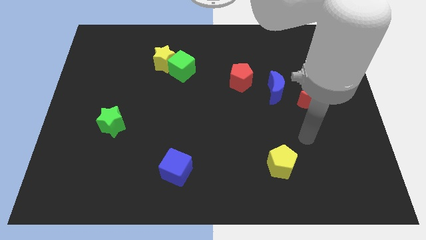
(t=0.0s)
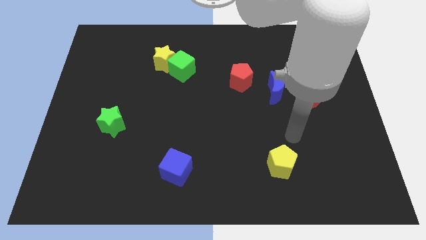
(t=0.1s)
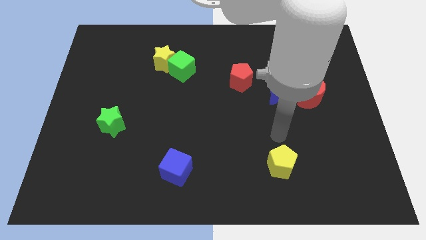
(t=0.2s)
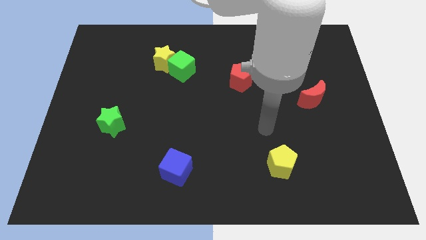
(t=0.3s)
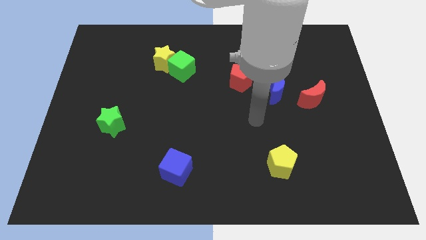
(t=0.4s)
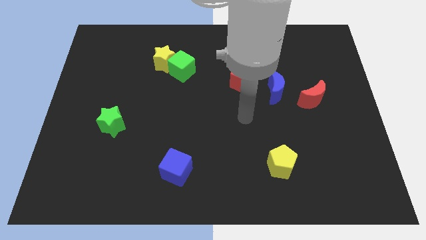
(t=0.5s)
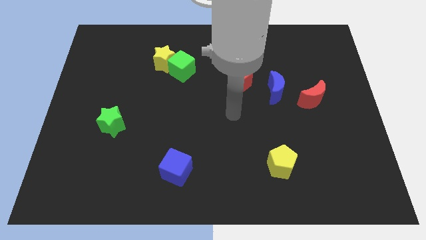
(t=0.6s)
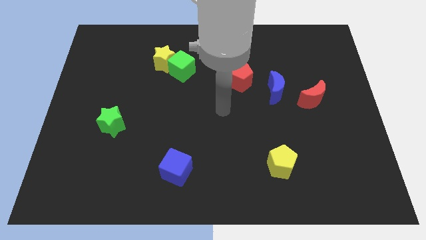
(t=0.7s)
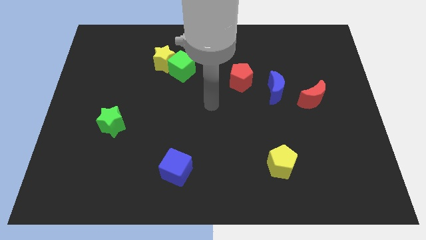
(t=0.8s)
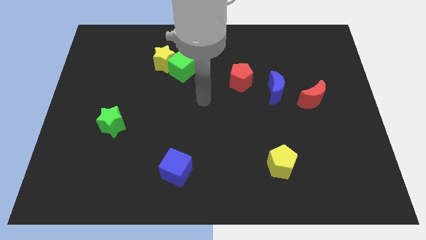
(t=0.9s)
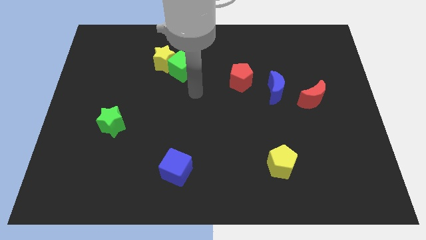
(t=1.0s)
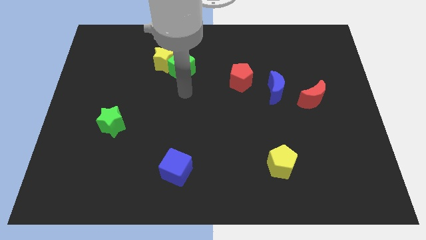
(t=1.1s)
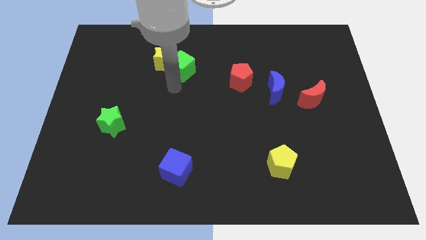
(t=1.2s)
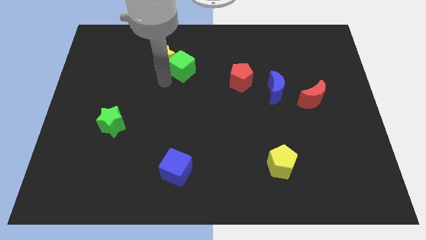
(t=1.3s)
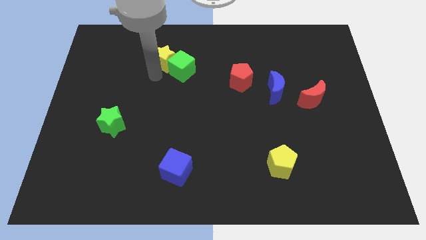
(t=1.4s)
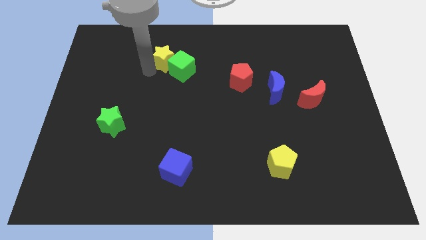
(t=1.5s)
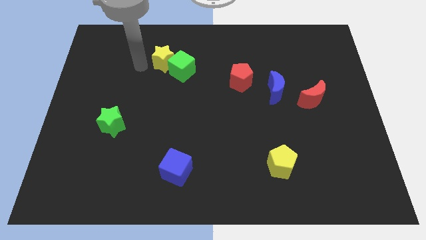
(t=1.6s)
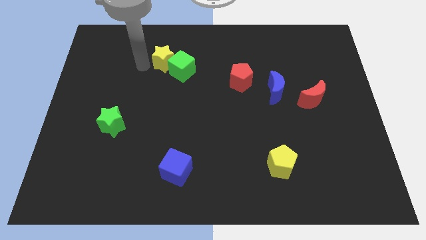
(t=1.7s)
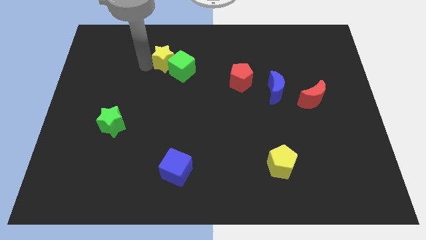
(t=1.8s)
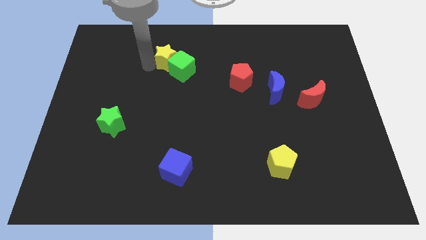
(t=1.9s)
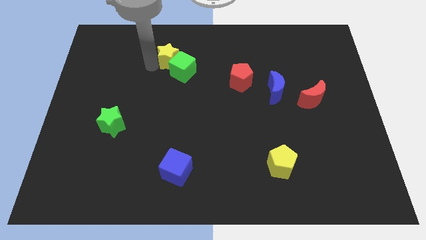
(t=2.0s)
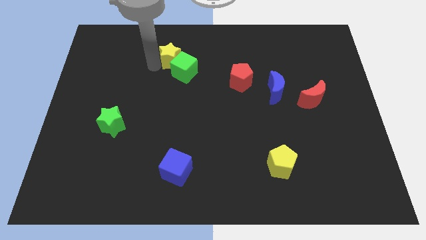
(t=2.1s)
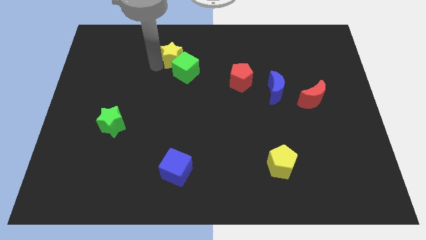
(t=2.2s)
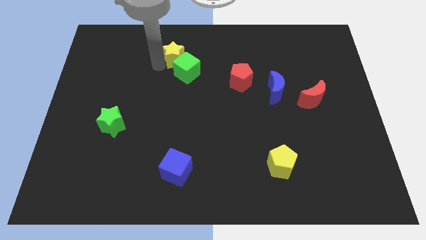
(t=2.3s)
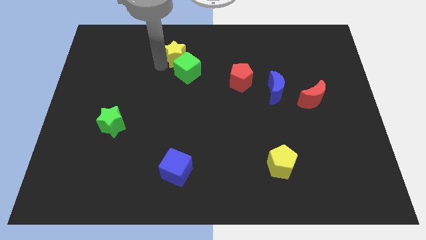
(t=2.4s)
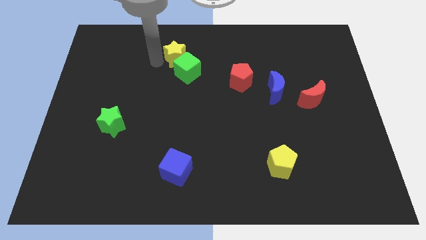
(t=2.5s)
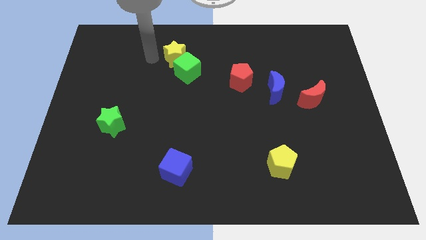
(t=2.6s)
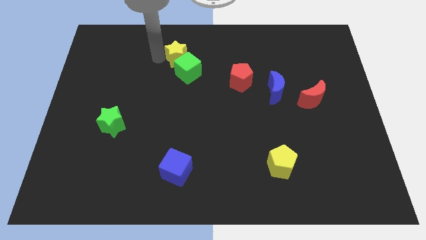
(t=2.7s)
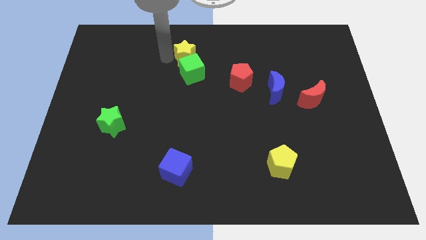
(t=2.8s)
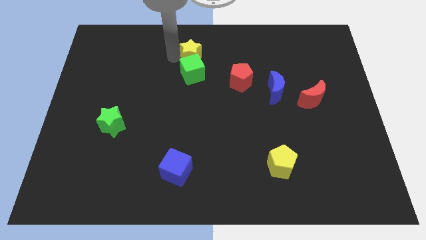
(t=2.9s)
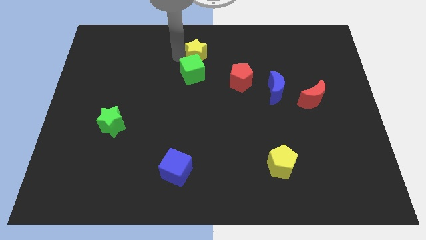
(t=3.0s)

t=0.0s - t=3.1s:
slightly push the yellow star right

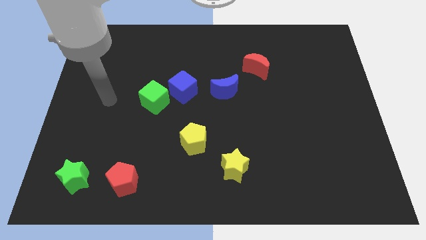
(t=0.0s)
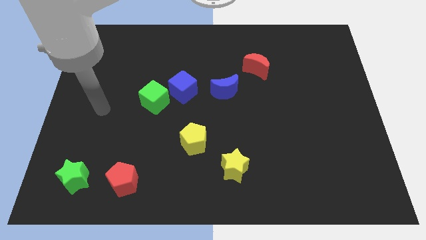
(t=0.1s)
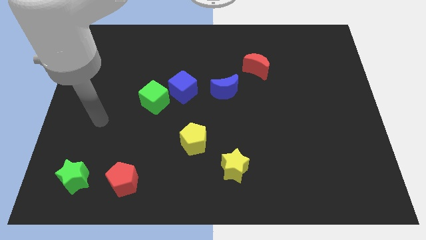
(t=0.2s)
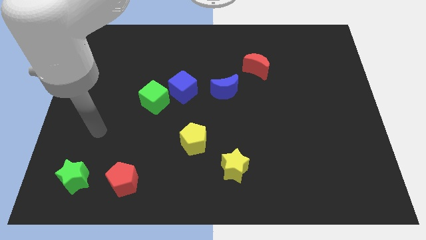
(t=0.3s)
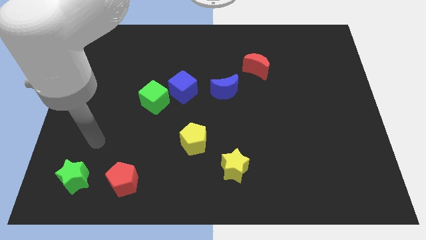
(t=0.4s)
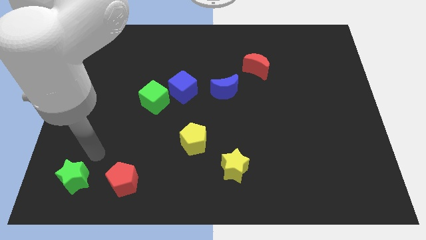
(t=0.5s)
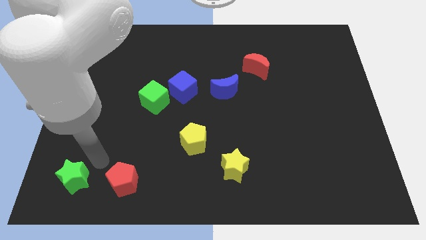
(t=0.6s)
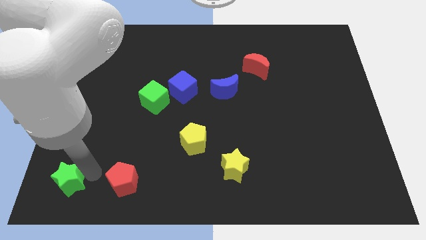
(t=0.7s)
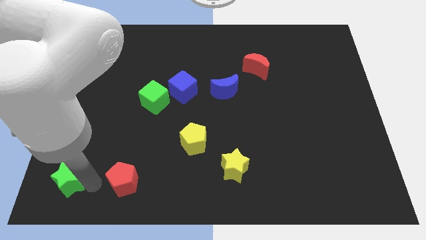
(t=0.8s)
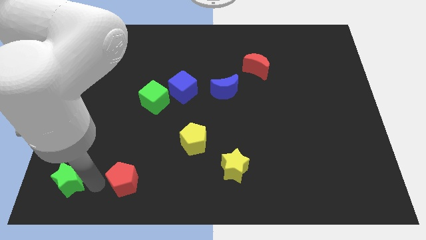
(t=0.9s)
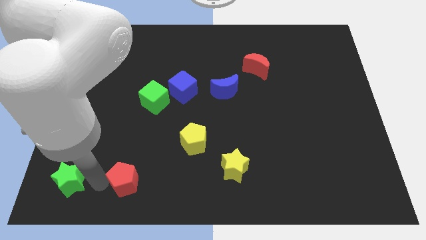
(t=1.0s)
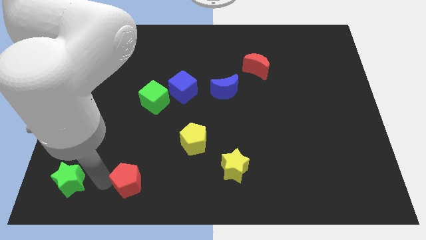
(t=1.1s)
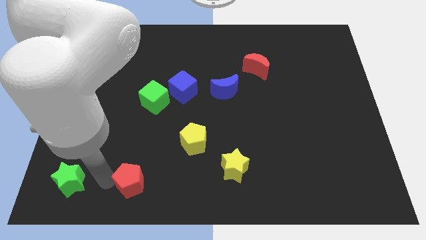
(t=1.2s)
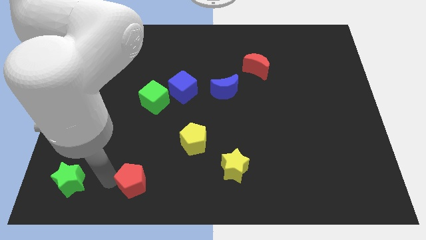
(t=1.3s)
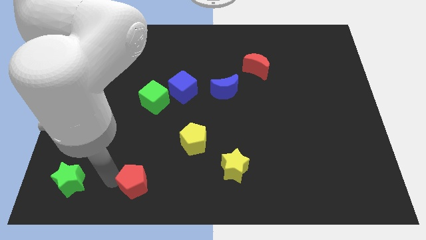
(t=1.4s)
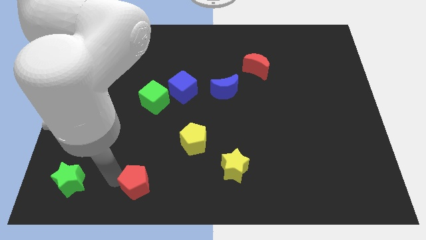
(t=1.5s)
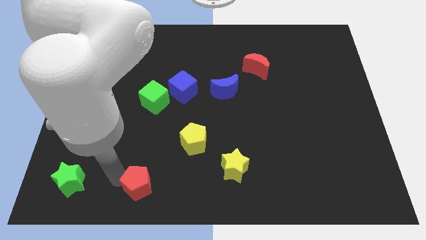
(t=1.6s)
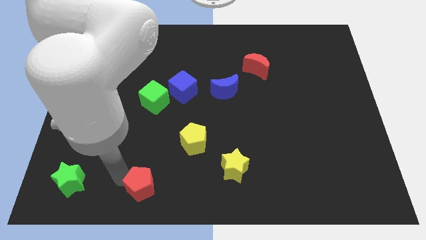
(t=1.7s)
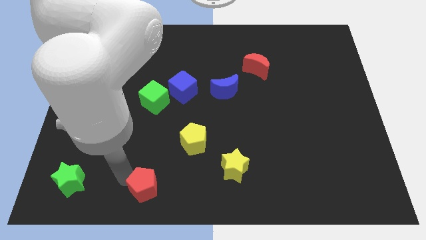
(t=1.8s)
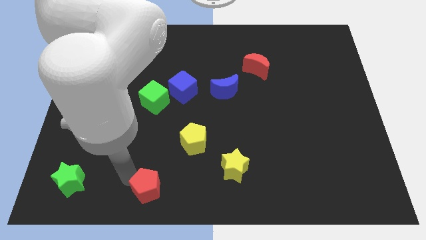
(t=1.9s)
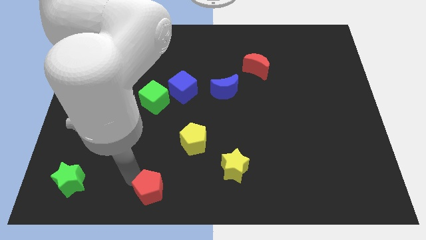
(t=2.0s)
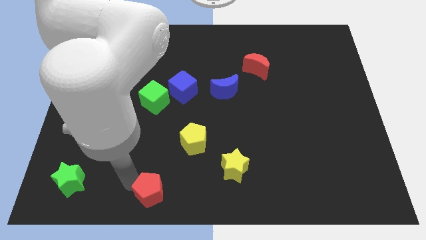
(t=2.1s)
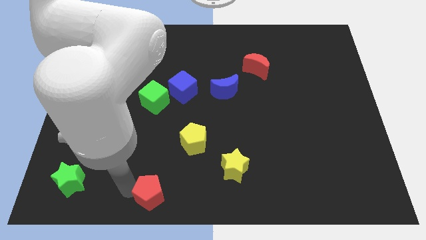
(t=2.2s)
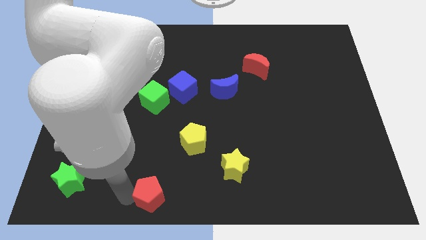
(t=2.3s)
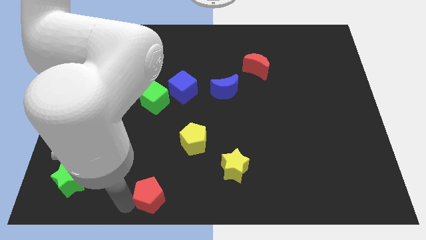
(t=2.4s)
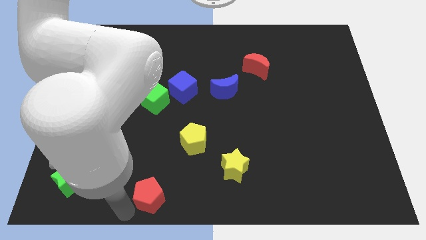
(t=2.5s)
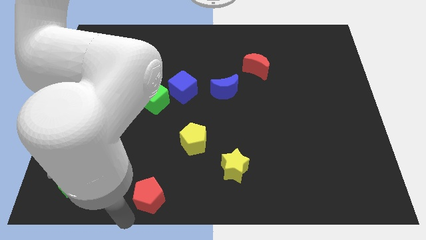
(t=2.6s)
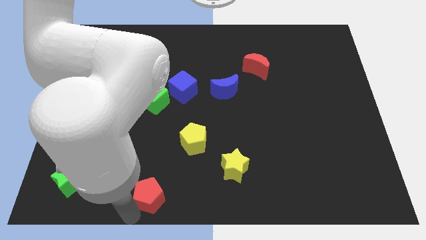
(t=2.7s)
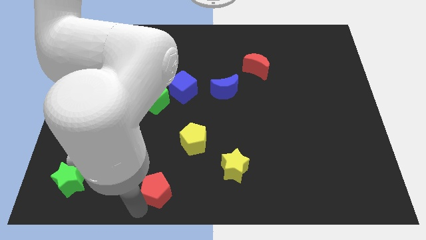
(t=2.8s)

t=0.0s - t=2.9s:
slightly slide the red pentagon to the right

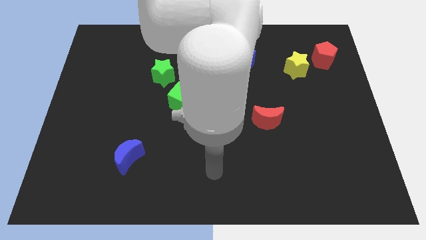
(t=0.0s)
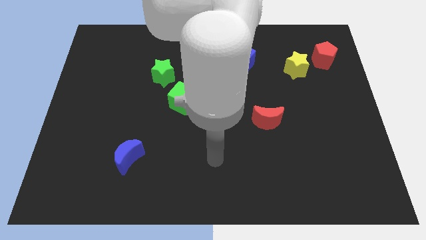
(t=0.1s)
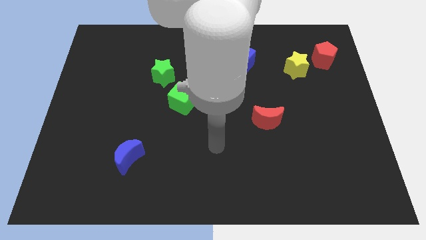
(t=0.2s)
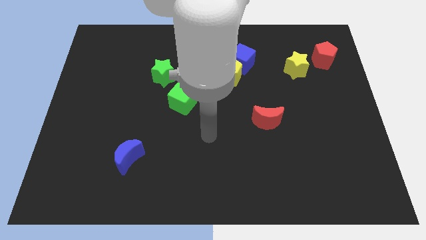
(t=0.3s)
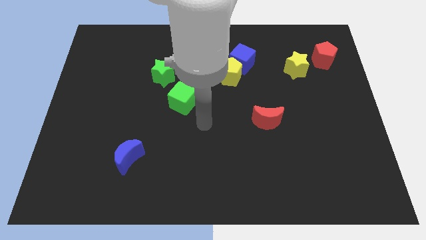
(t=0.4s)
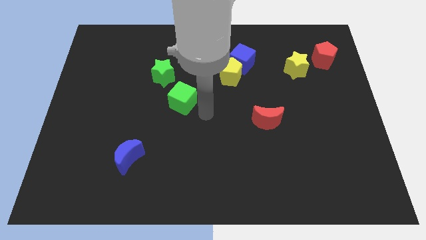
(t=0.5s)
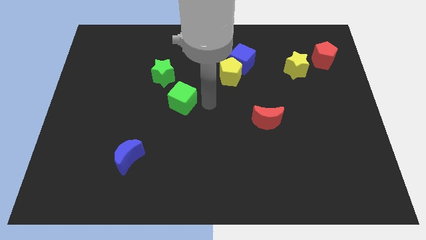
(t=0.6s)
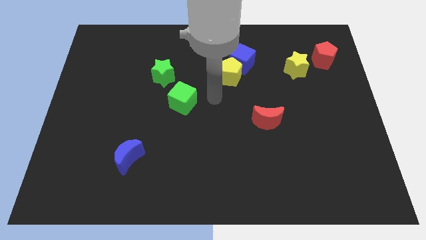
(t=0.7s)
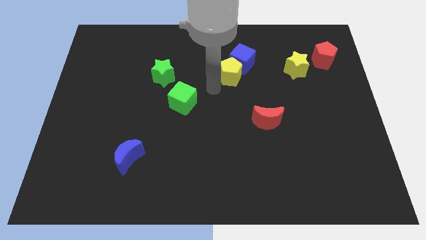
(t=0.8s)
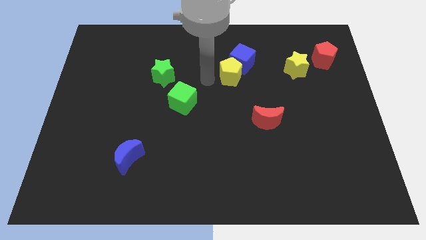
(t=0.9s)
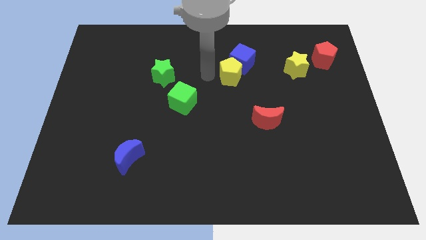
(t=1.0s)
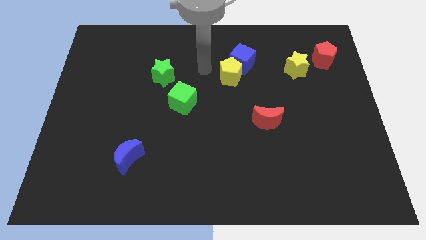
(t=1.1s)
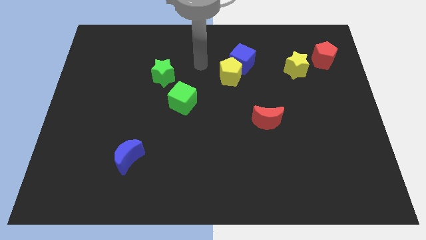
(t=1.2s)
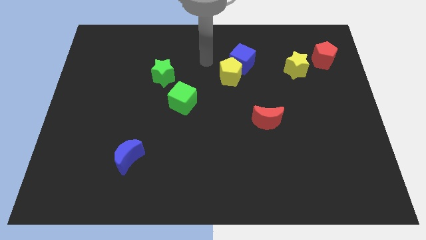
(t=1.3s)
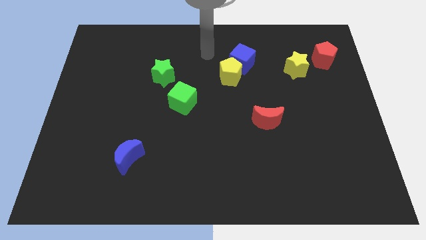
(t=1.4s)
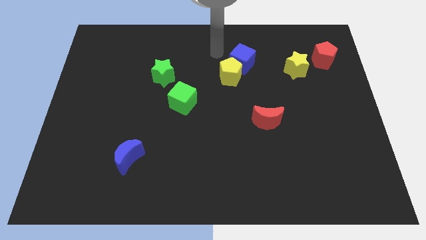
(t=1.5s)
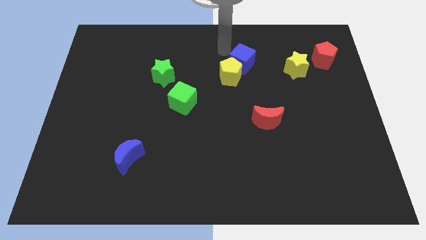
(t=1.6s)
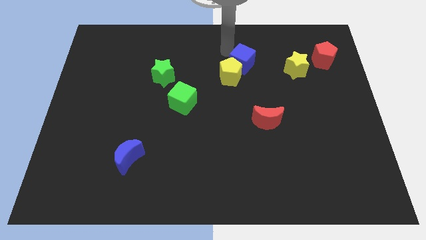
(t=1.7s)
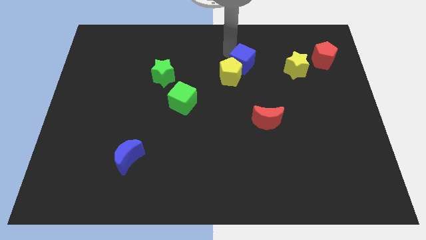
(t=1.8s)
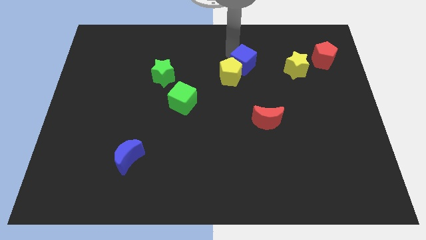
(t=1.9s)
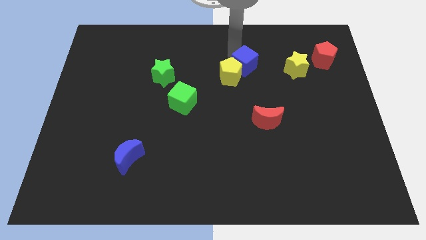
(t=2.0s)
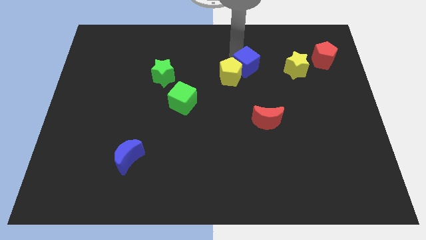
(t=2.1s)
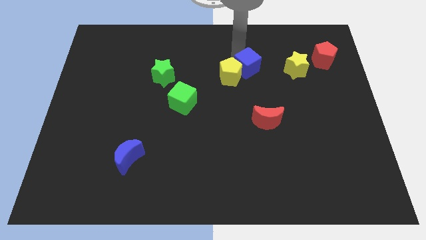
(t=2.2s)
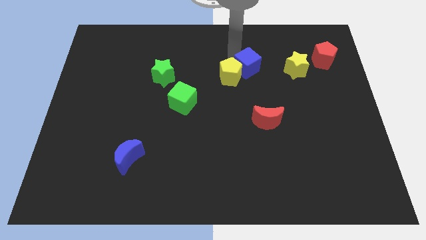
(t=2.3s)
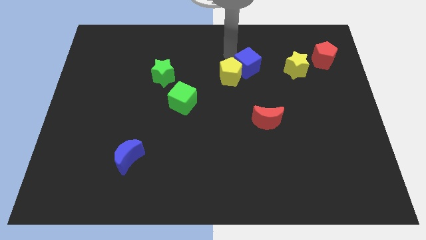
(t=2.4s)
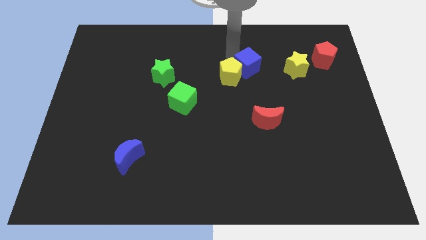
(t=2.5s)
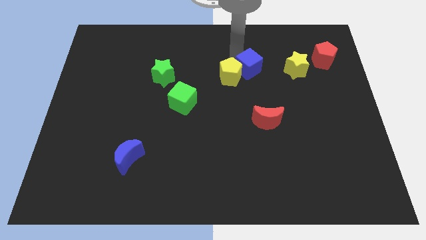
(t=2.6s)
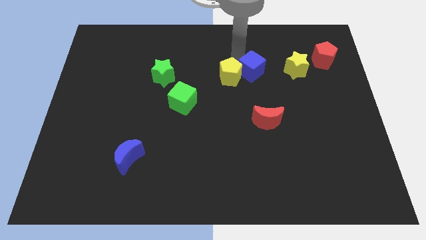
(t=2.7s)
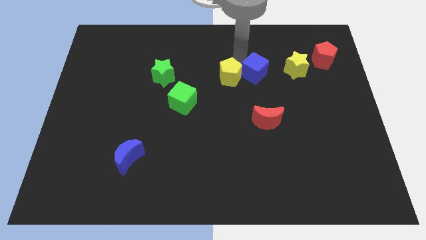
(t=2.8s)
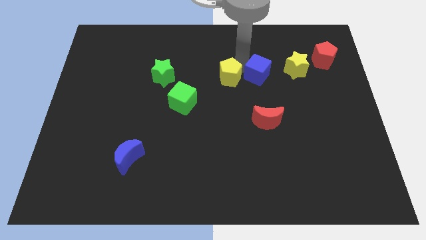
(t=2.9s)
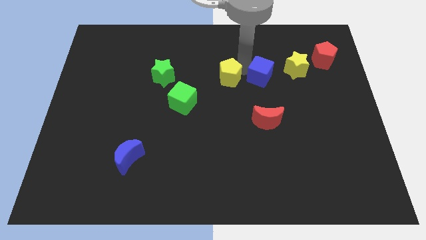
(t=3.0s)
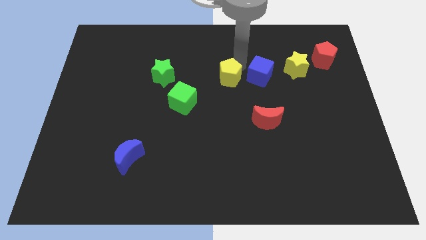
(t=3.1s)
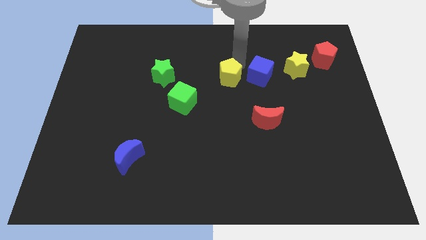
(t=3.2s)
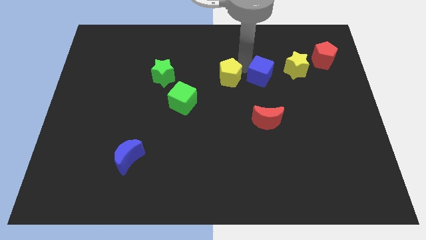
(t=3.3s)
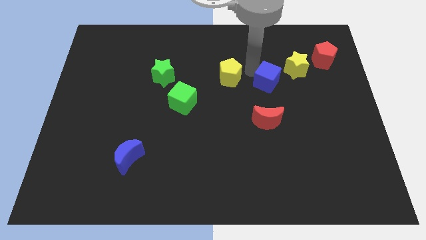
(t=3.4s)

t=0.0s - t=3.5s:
push the blue cube a little down and then right
